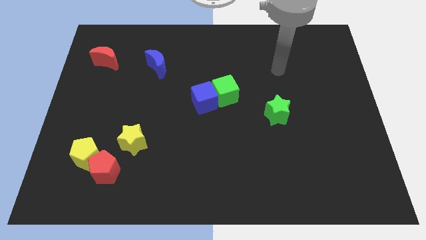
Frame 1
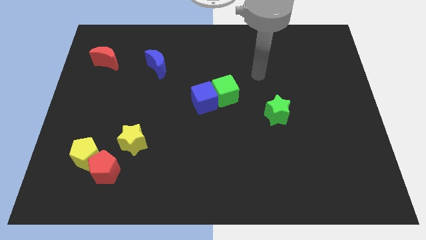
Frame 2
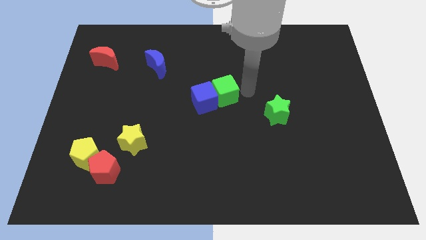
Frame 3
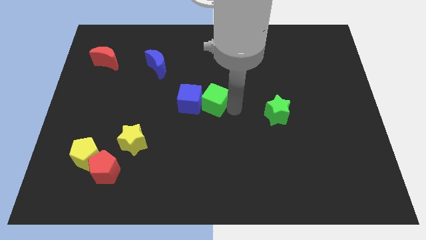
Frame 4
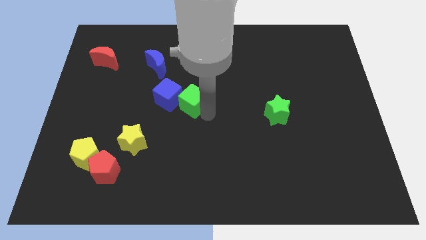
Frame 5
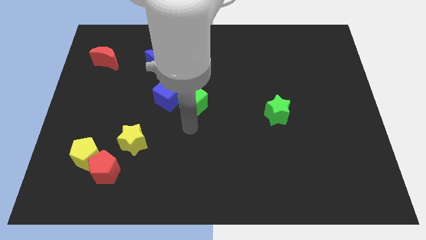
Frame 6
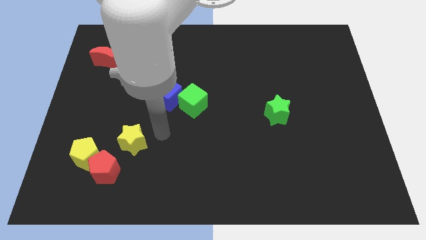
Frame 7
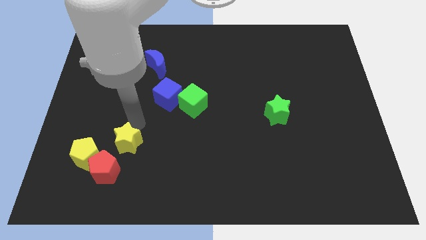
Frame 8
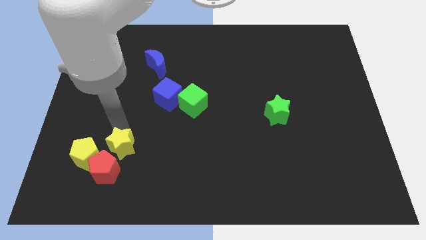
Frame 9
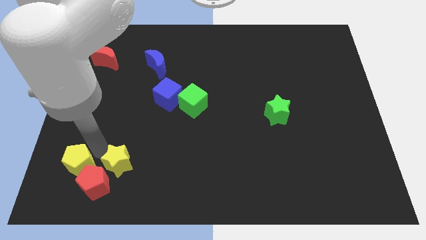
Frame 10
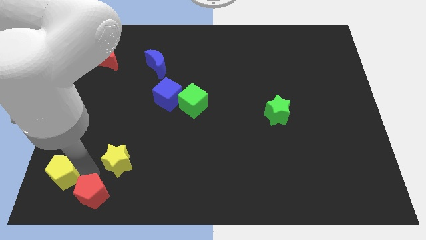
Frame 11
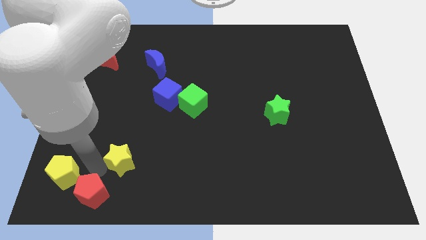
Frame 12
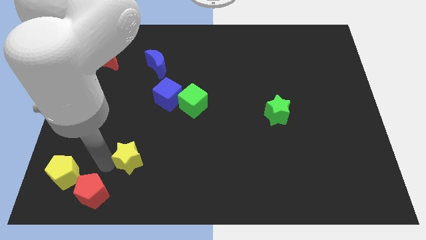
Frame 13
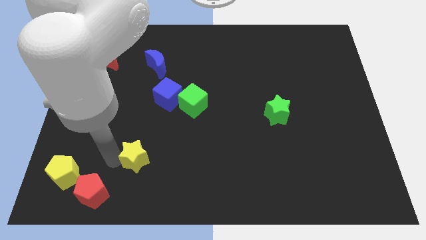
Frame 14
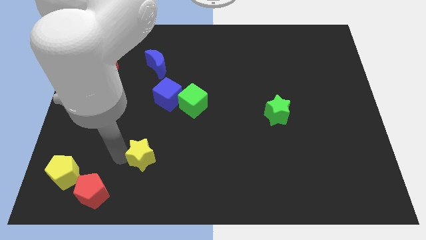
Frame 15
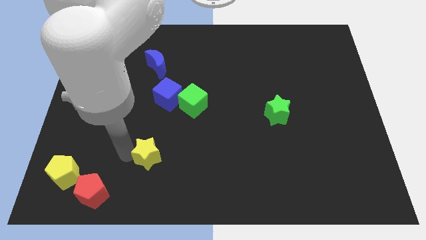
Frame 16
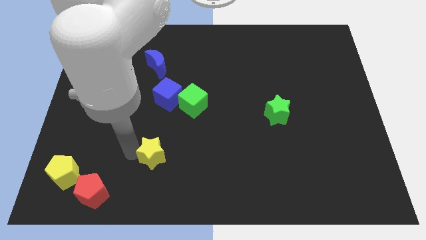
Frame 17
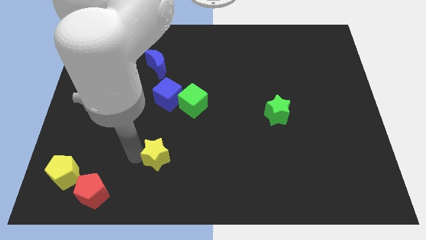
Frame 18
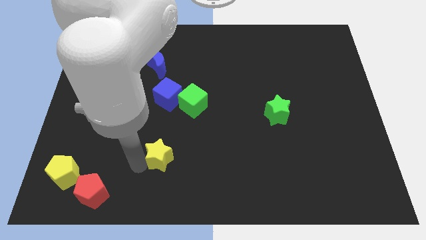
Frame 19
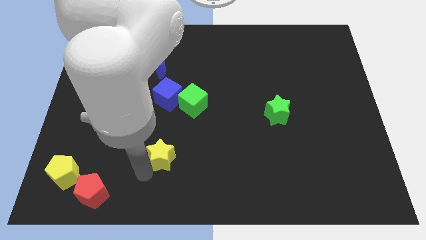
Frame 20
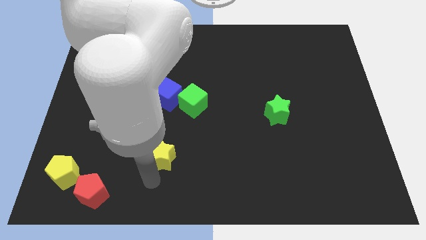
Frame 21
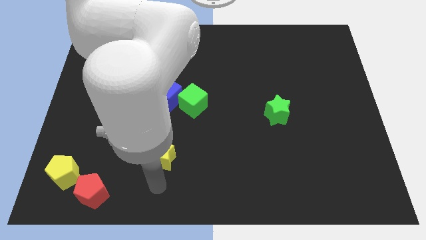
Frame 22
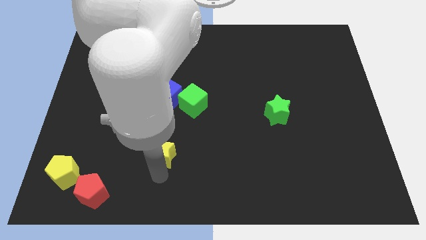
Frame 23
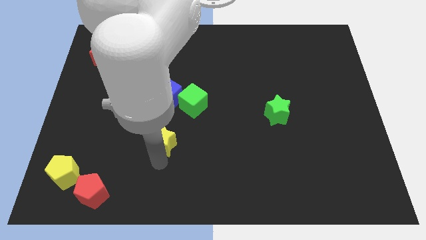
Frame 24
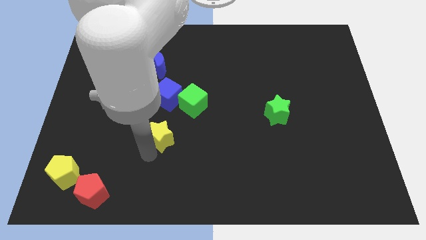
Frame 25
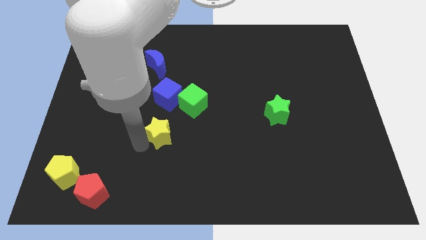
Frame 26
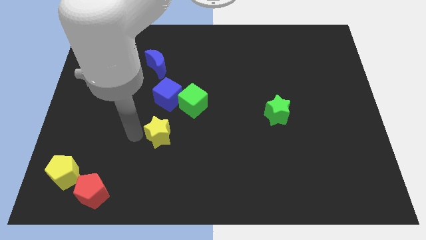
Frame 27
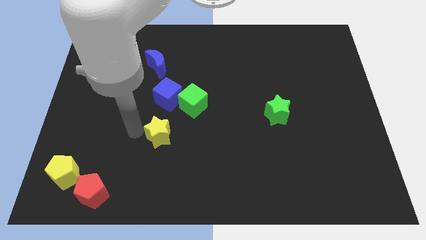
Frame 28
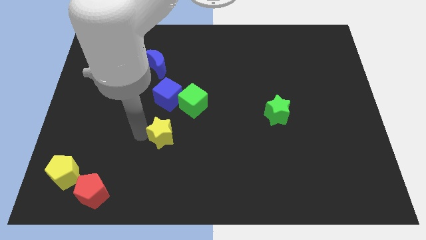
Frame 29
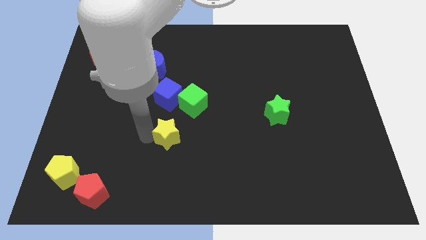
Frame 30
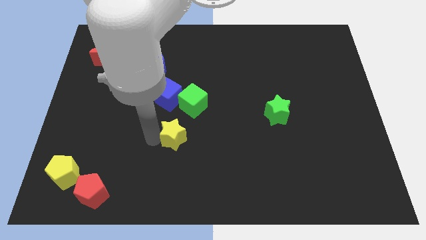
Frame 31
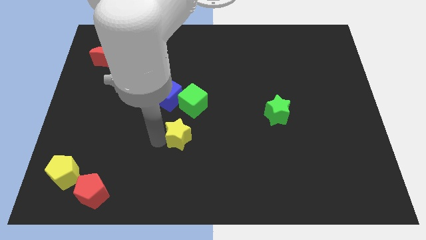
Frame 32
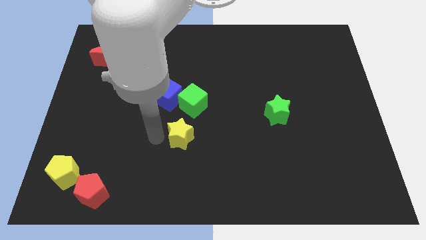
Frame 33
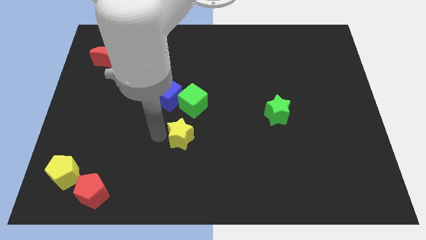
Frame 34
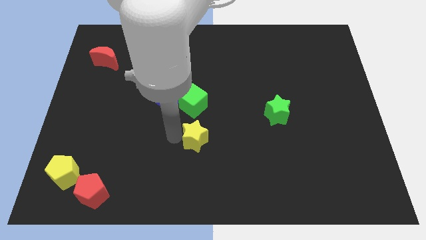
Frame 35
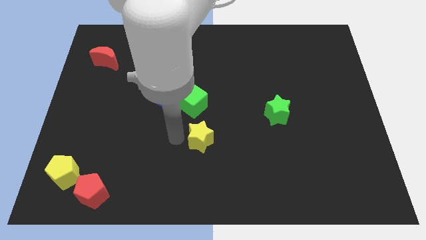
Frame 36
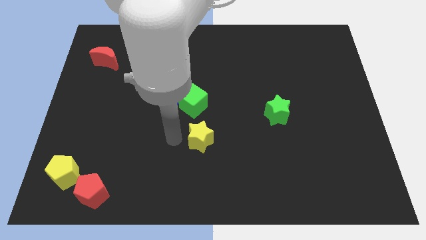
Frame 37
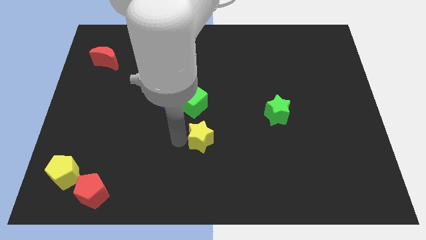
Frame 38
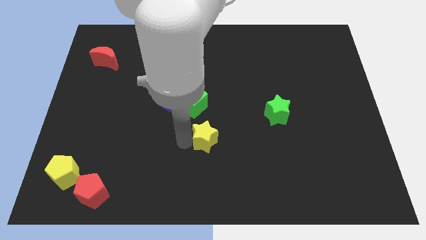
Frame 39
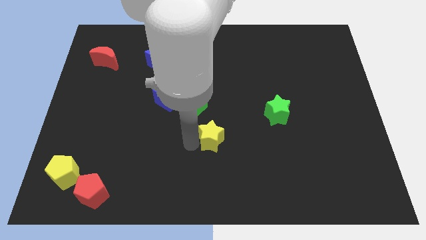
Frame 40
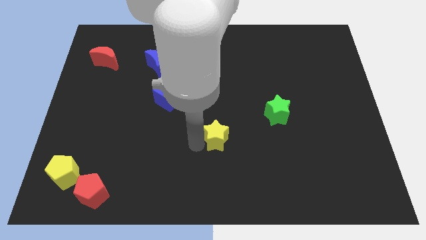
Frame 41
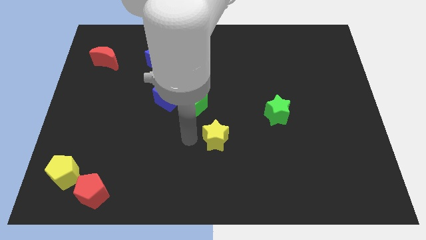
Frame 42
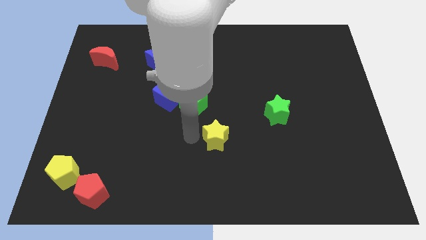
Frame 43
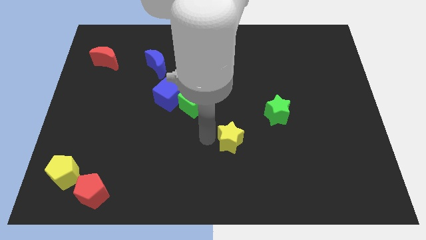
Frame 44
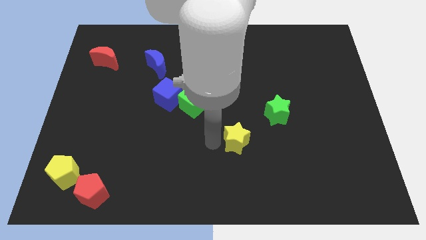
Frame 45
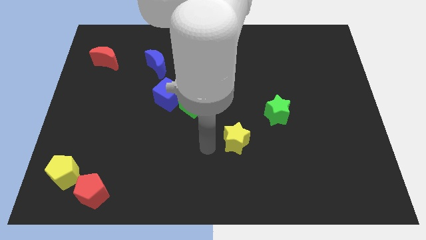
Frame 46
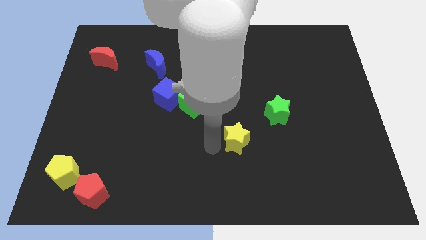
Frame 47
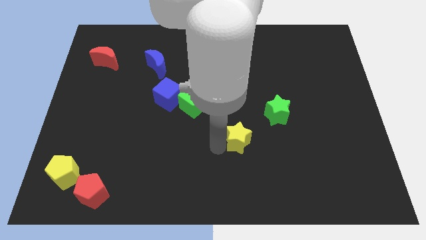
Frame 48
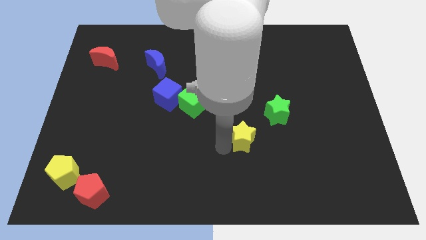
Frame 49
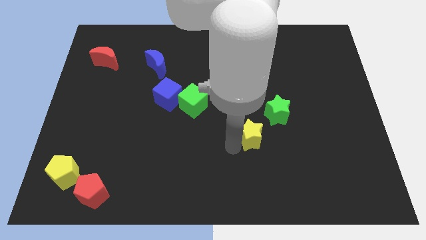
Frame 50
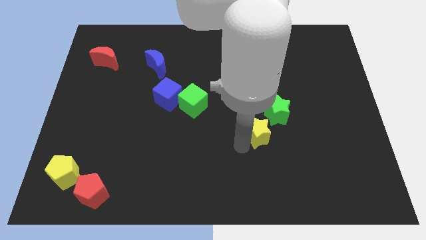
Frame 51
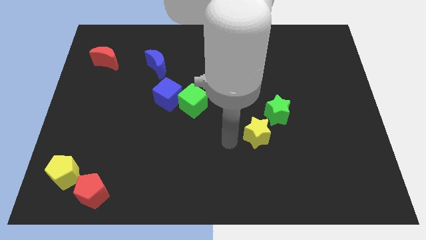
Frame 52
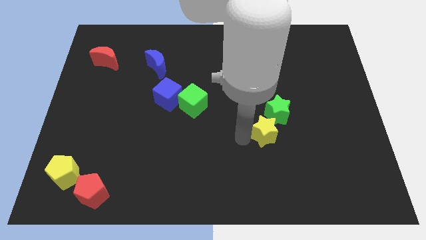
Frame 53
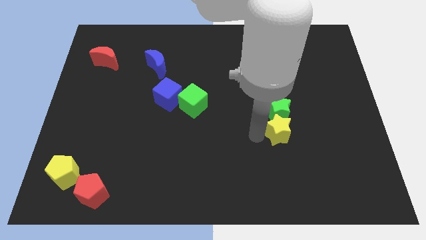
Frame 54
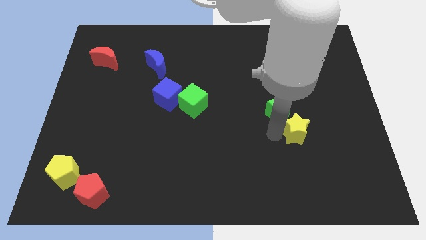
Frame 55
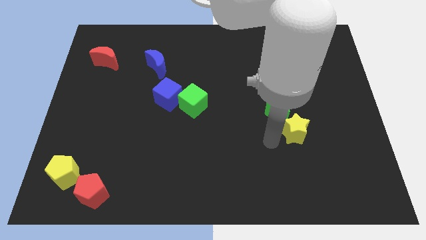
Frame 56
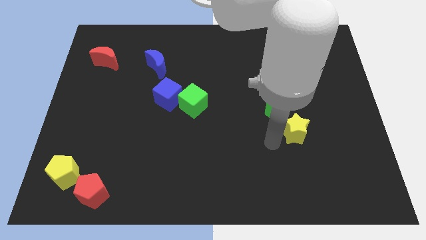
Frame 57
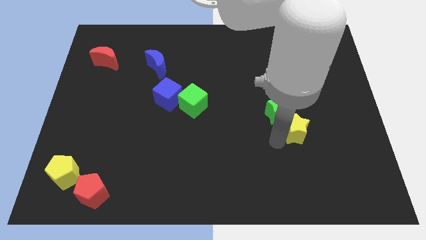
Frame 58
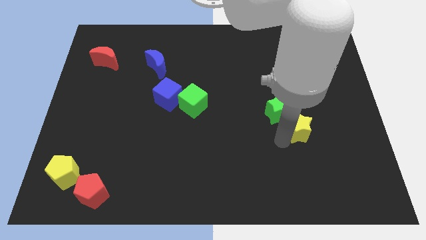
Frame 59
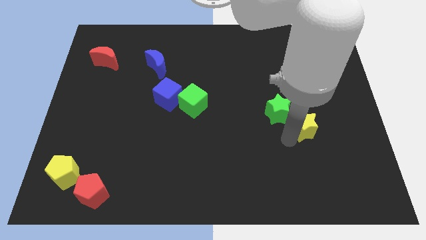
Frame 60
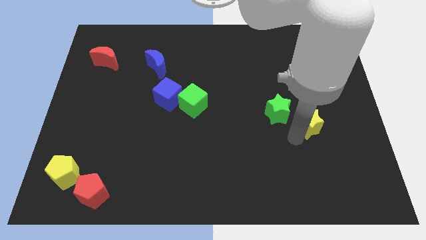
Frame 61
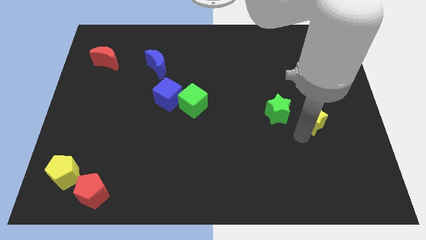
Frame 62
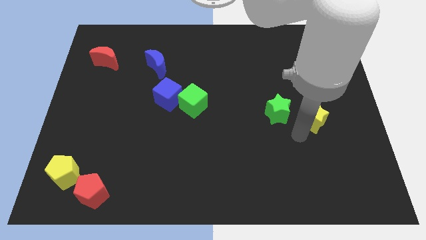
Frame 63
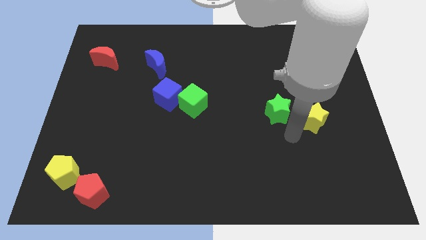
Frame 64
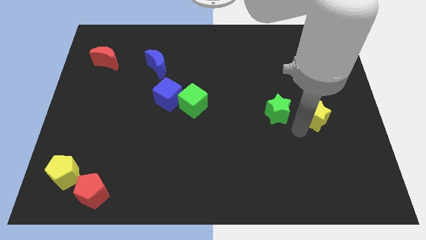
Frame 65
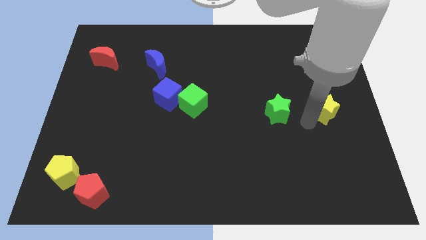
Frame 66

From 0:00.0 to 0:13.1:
move the yellow star to the right side of the board
